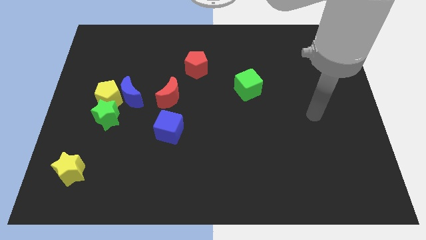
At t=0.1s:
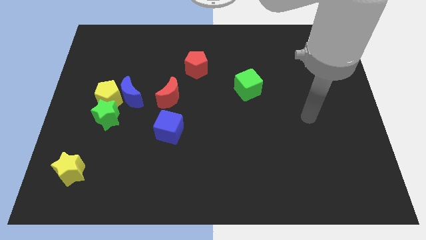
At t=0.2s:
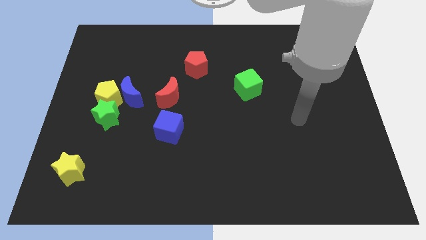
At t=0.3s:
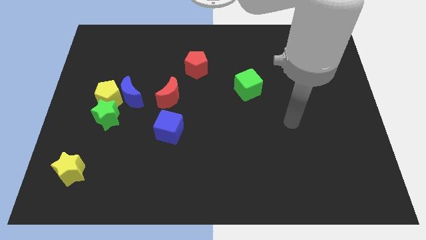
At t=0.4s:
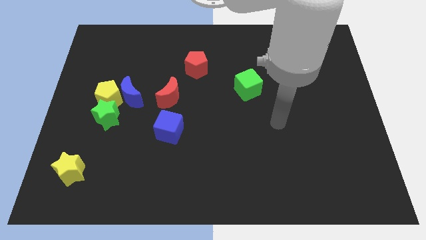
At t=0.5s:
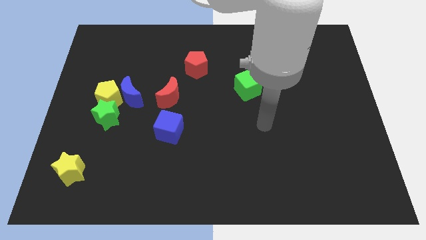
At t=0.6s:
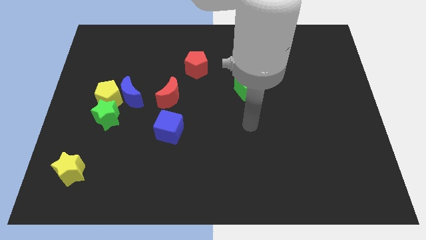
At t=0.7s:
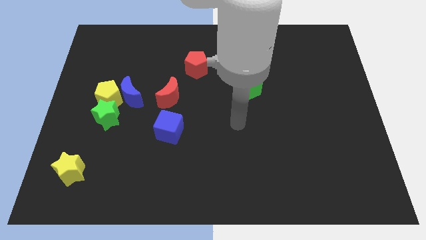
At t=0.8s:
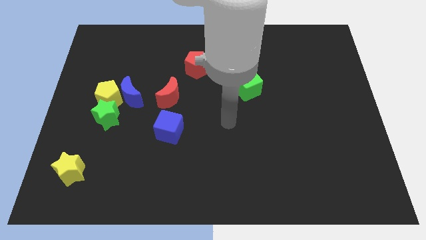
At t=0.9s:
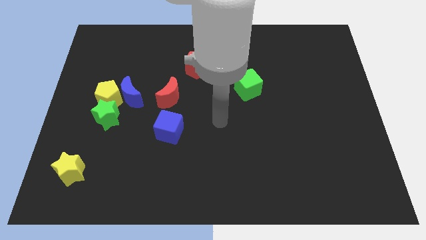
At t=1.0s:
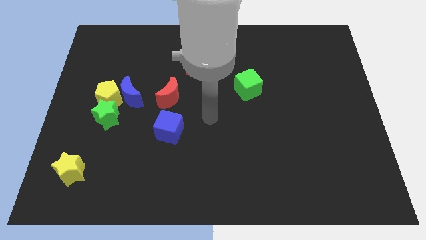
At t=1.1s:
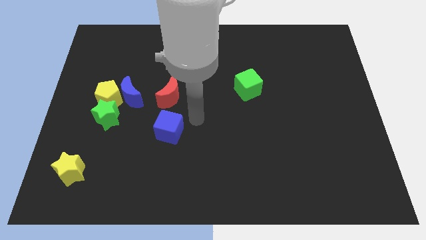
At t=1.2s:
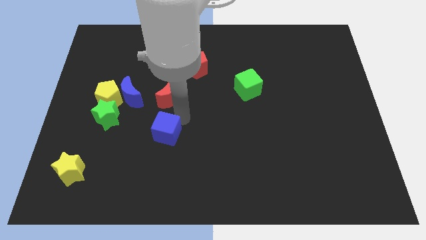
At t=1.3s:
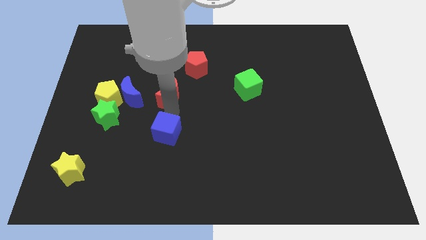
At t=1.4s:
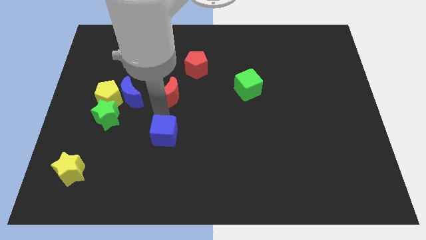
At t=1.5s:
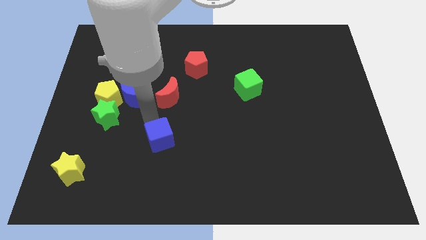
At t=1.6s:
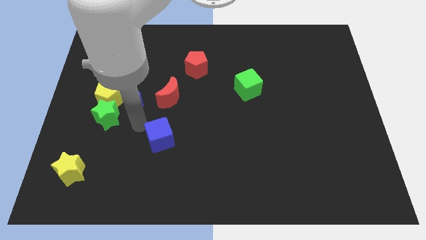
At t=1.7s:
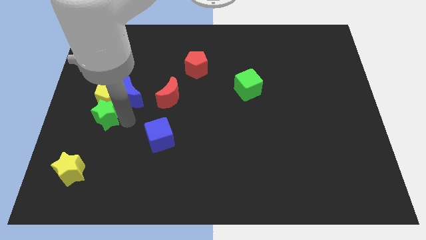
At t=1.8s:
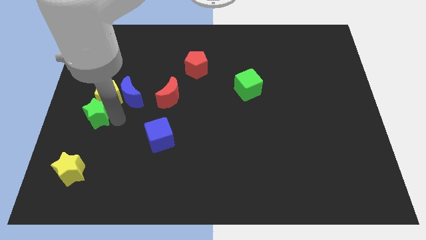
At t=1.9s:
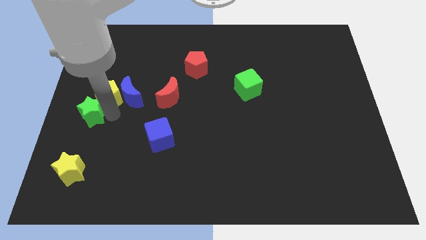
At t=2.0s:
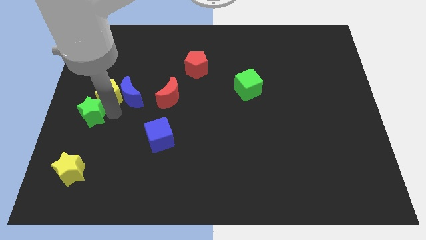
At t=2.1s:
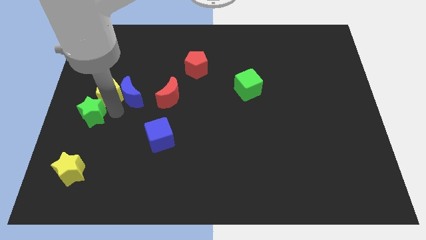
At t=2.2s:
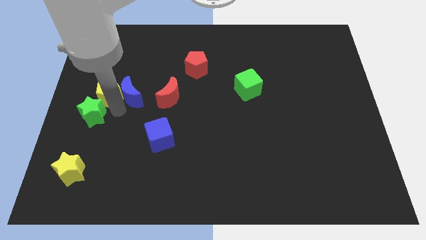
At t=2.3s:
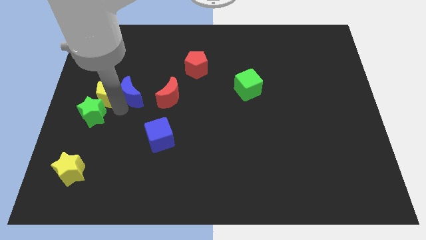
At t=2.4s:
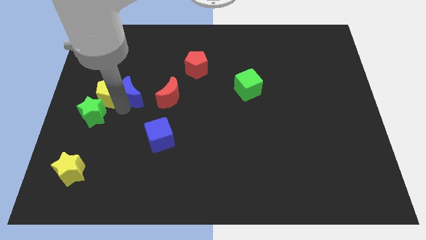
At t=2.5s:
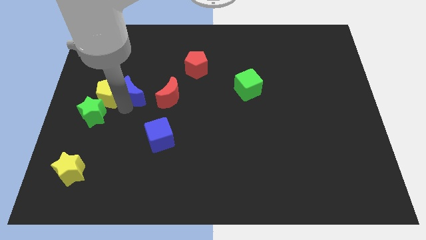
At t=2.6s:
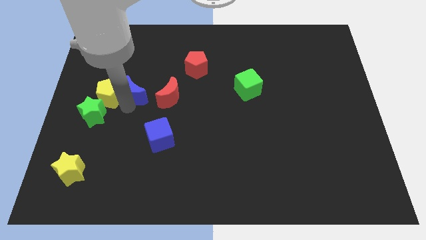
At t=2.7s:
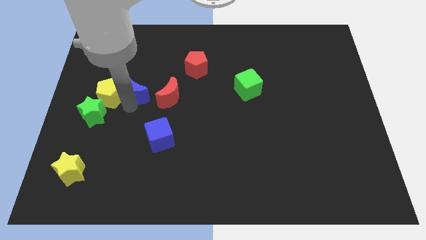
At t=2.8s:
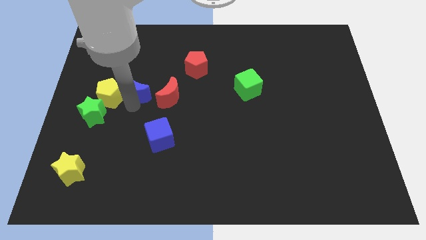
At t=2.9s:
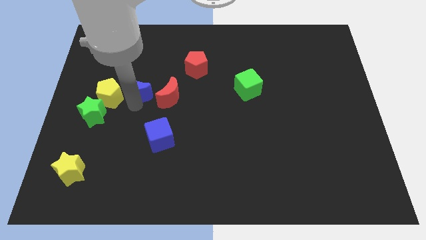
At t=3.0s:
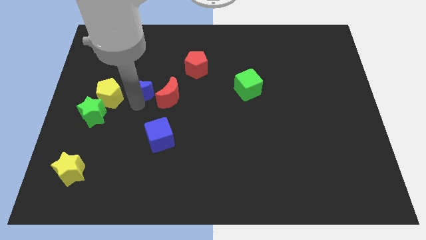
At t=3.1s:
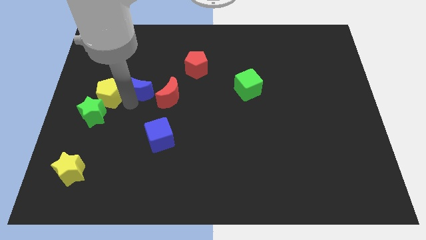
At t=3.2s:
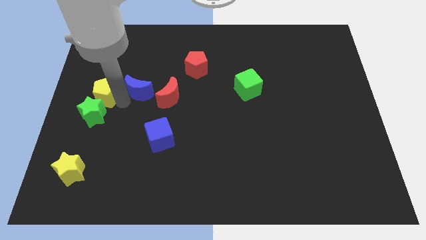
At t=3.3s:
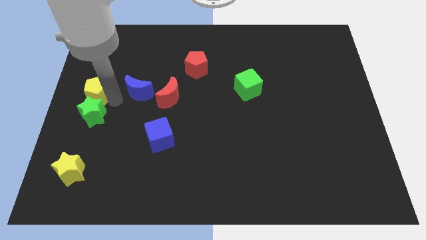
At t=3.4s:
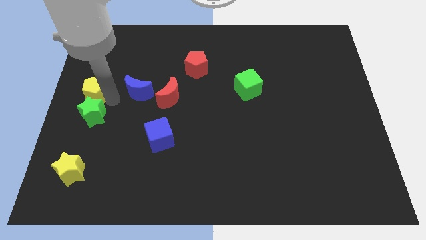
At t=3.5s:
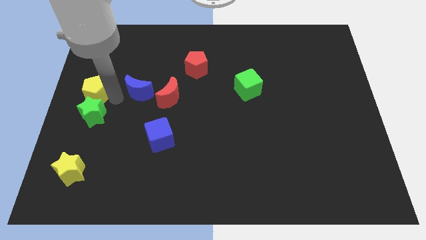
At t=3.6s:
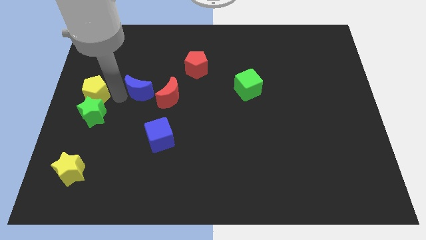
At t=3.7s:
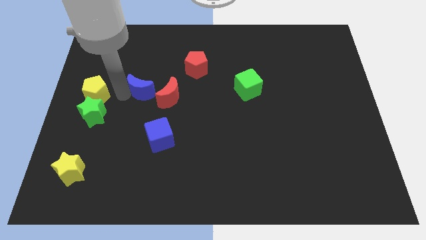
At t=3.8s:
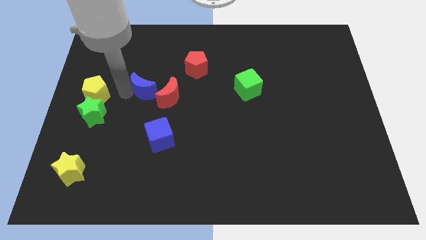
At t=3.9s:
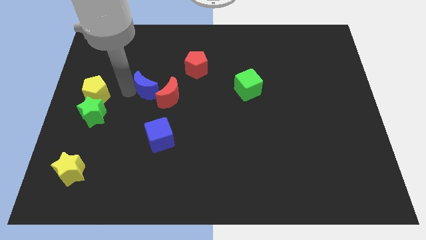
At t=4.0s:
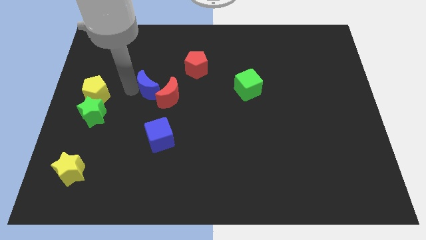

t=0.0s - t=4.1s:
put the blue moon to the top side of the blue cube

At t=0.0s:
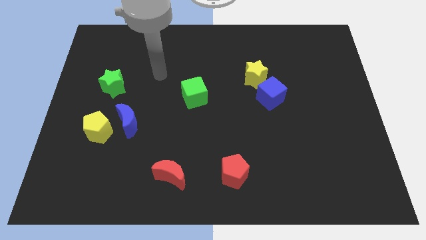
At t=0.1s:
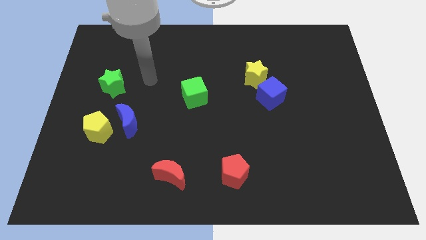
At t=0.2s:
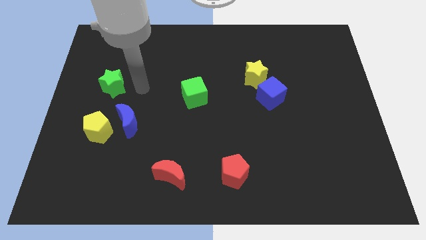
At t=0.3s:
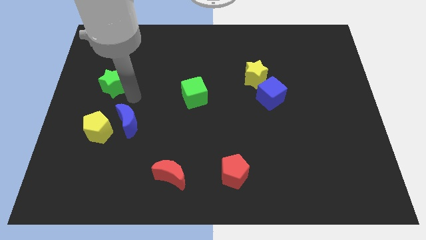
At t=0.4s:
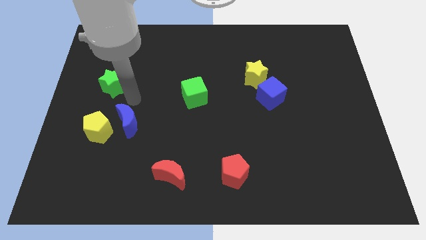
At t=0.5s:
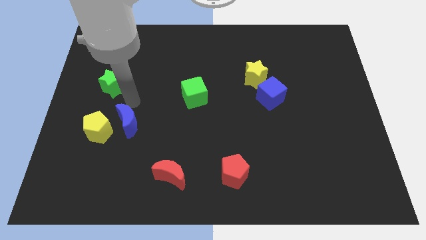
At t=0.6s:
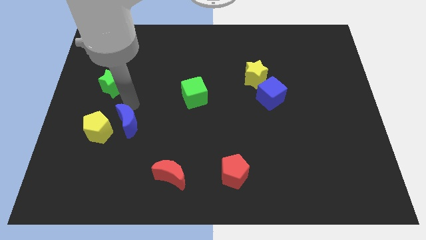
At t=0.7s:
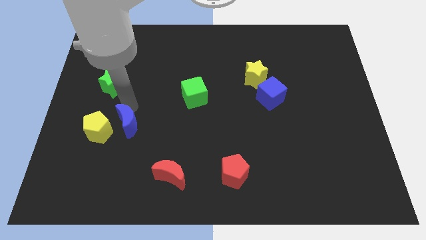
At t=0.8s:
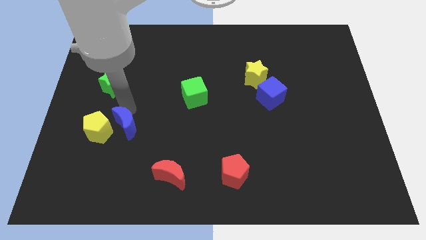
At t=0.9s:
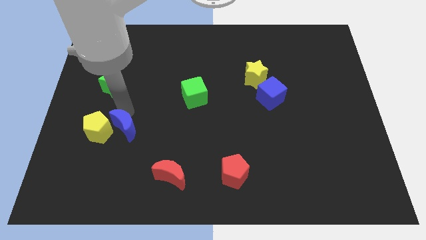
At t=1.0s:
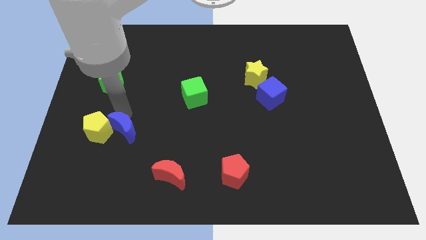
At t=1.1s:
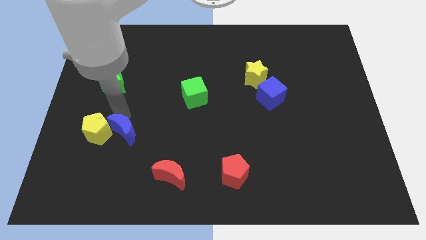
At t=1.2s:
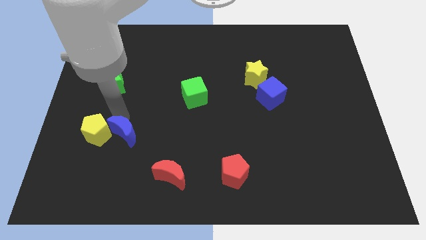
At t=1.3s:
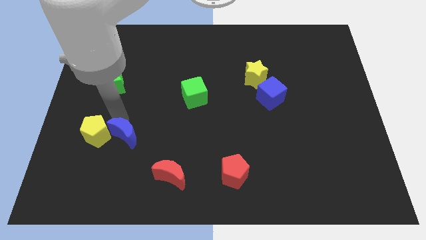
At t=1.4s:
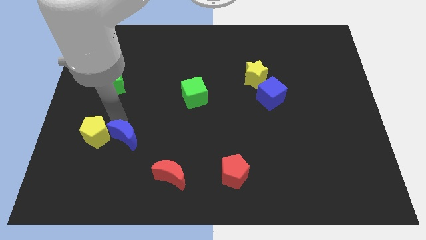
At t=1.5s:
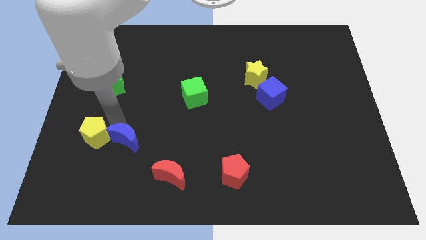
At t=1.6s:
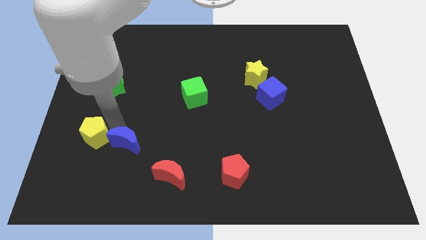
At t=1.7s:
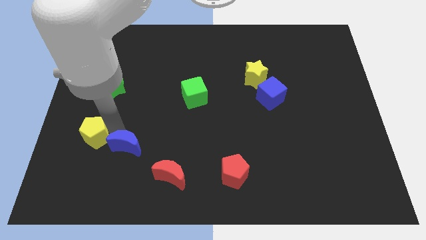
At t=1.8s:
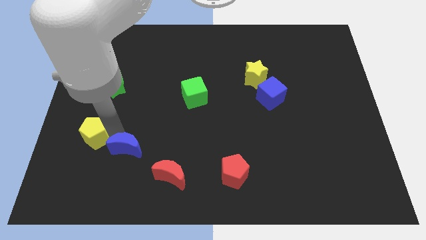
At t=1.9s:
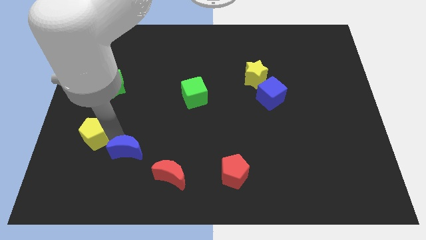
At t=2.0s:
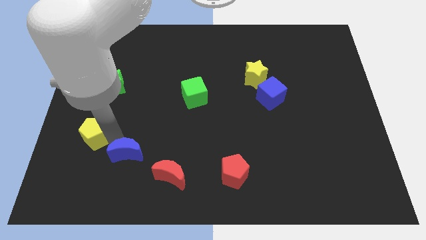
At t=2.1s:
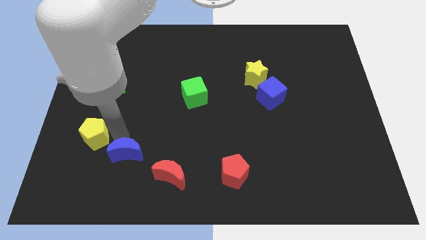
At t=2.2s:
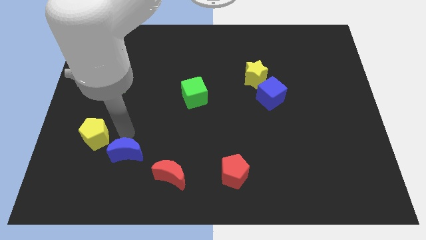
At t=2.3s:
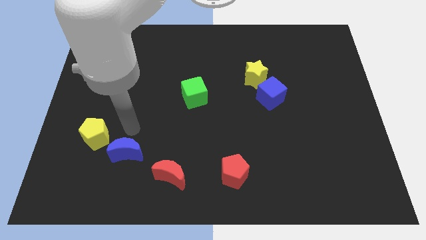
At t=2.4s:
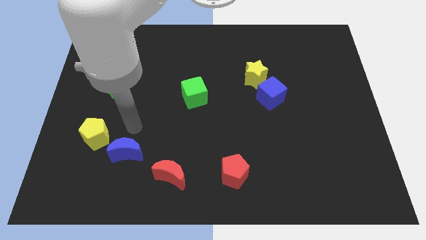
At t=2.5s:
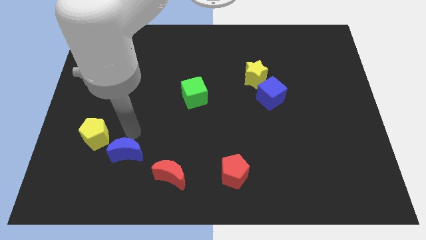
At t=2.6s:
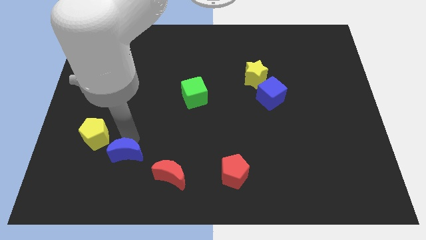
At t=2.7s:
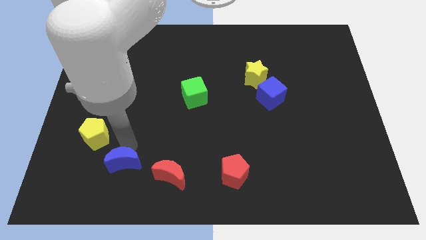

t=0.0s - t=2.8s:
push the blue moon left of the red moon

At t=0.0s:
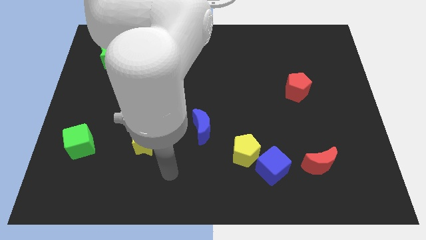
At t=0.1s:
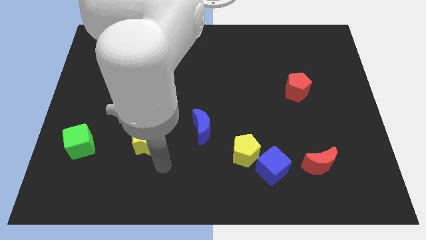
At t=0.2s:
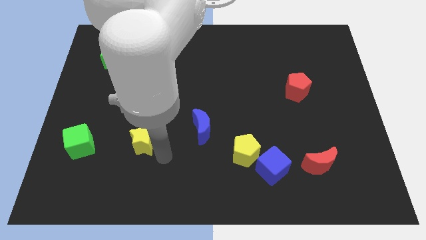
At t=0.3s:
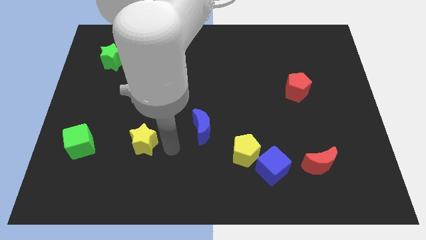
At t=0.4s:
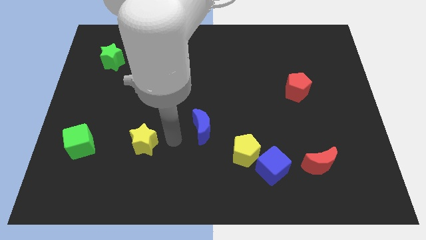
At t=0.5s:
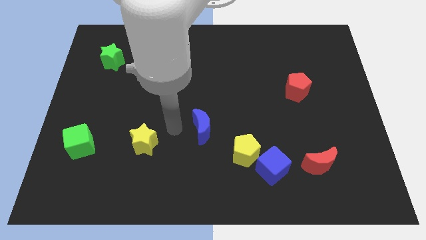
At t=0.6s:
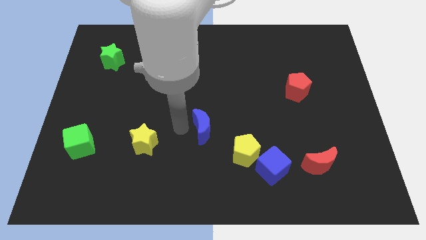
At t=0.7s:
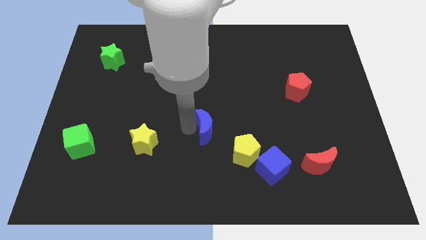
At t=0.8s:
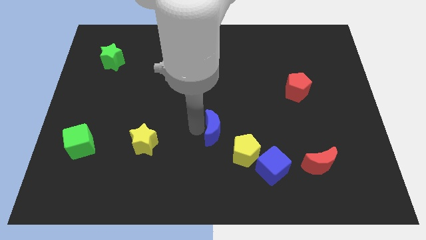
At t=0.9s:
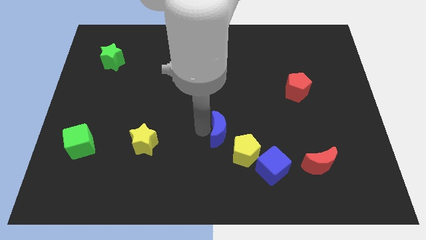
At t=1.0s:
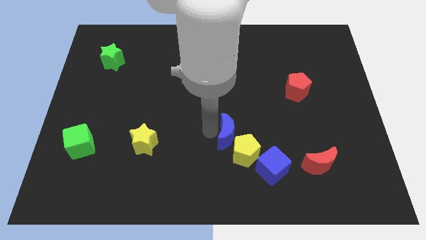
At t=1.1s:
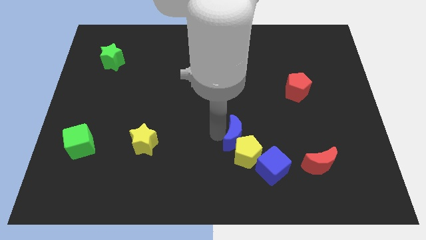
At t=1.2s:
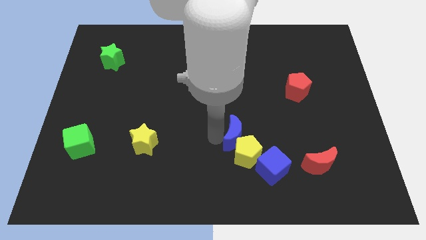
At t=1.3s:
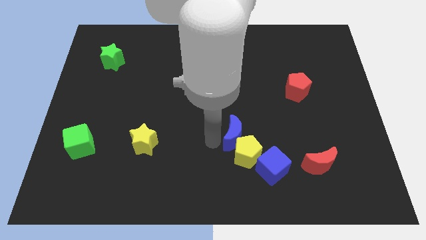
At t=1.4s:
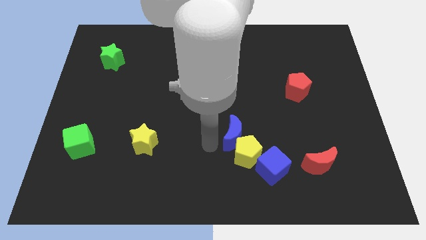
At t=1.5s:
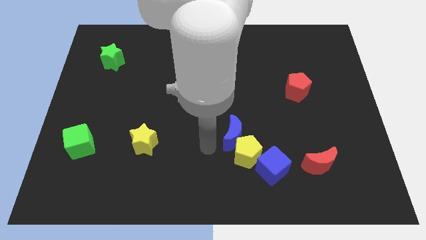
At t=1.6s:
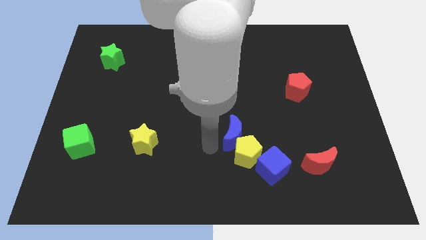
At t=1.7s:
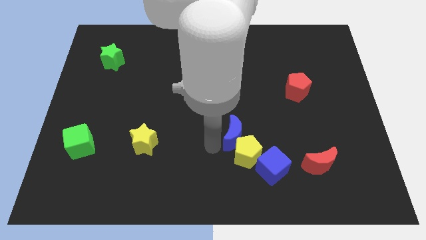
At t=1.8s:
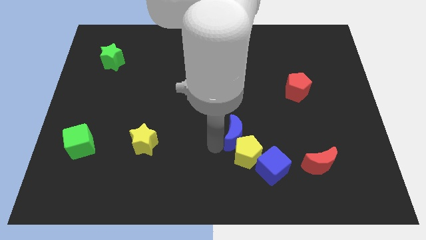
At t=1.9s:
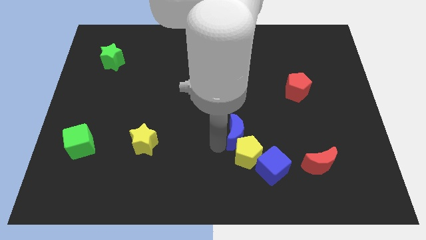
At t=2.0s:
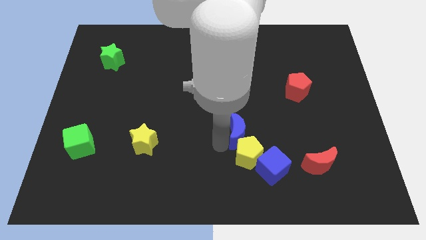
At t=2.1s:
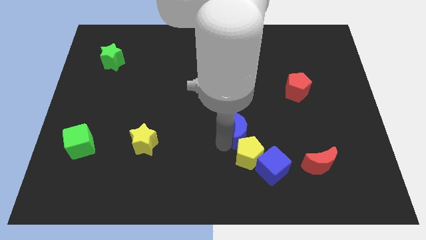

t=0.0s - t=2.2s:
slide the blue moon to the top right of the yellow pentagon
